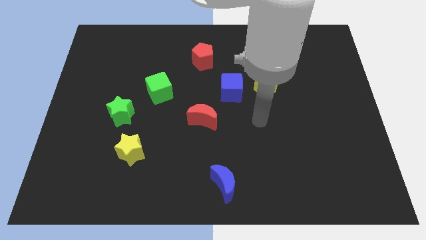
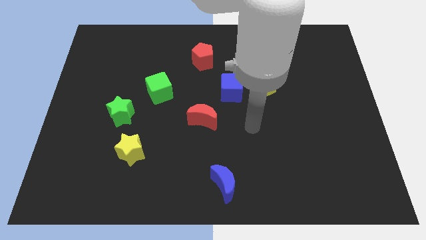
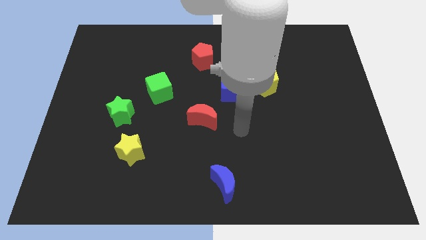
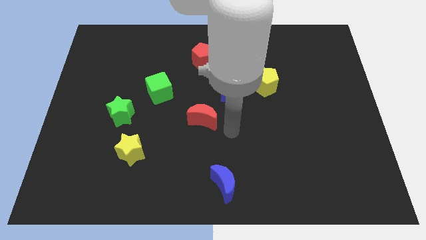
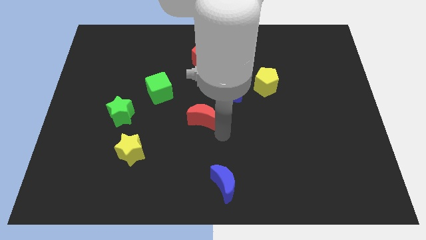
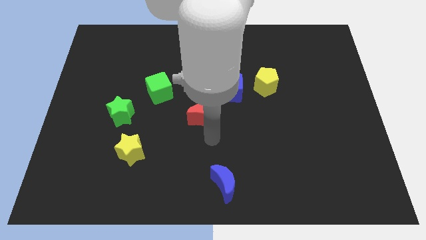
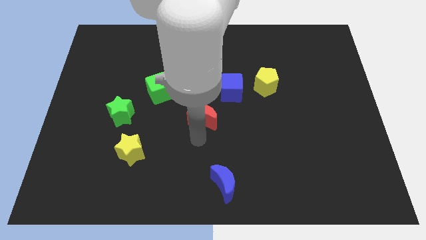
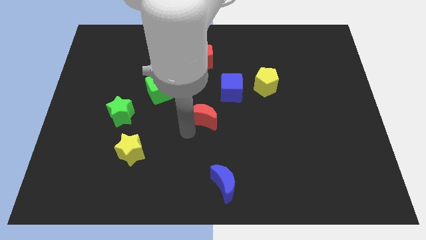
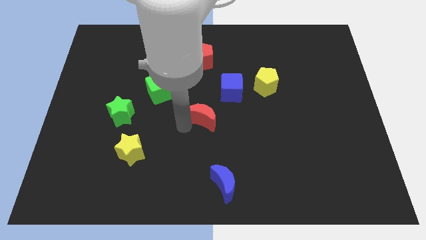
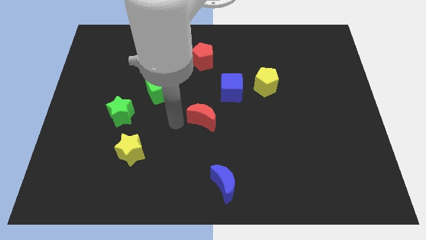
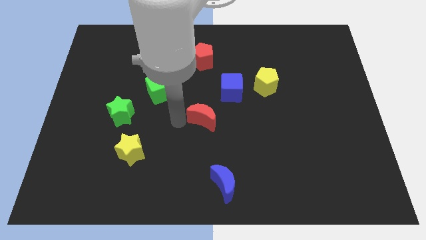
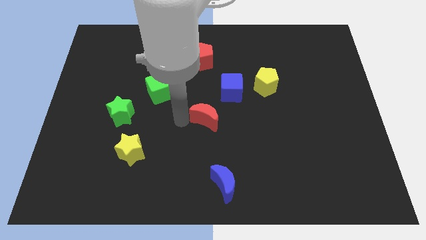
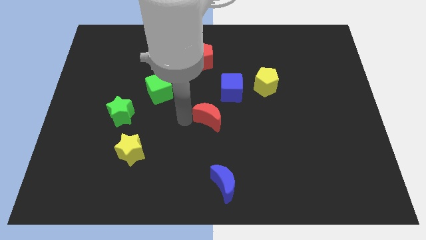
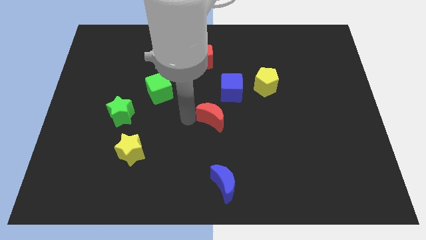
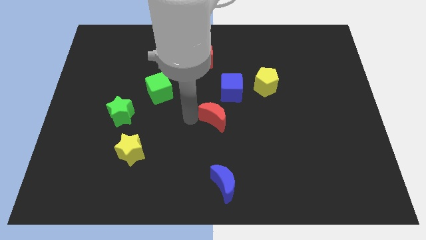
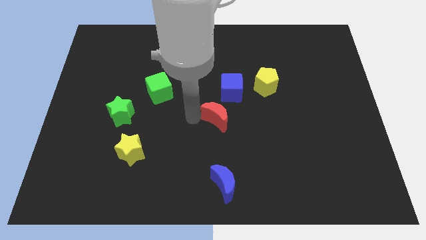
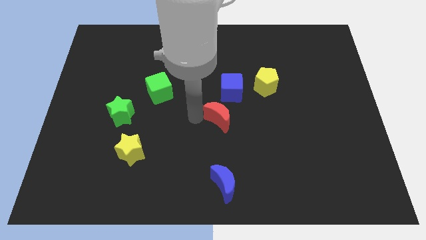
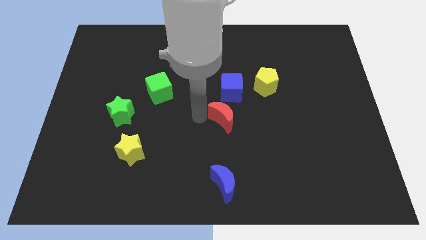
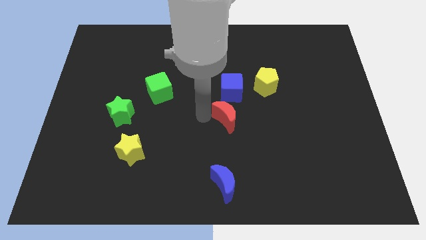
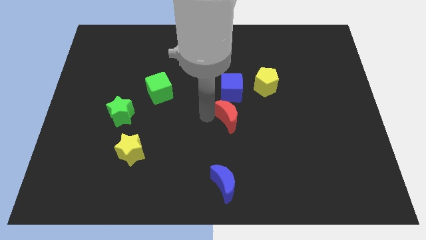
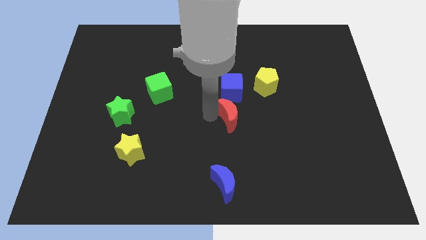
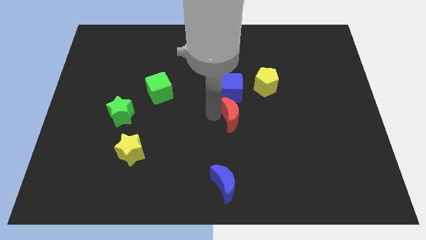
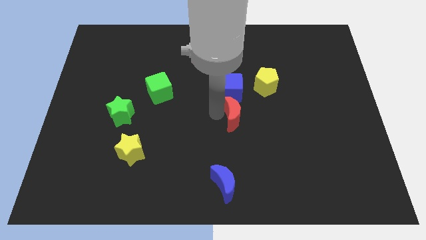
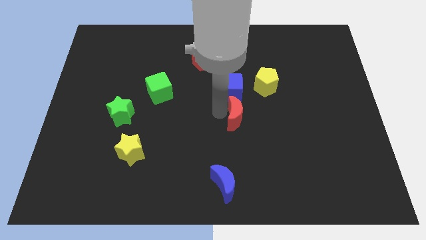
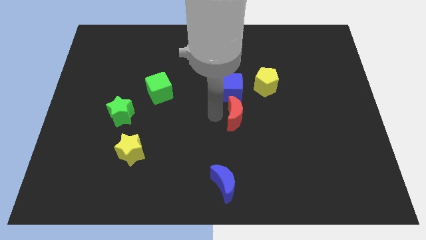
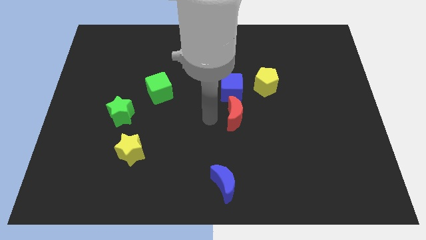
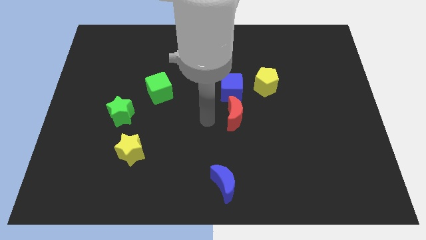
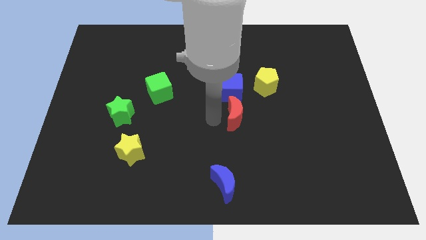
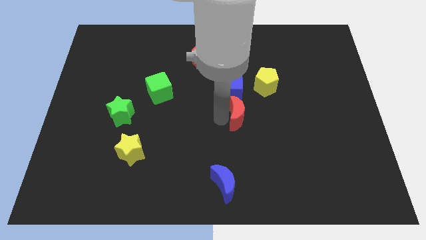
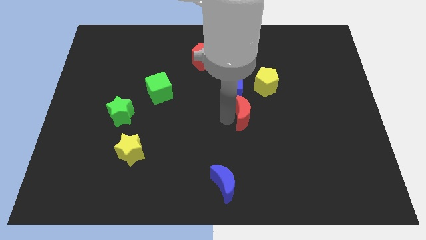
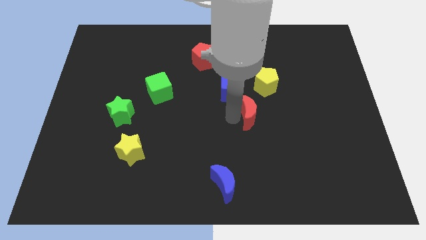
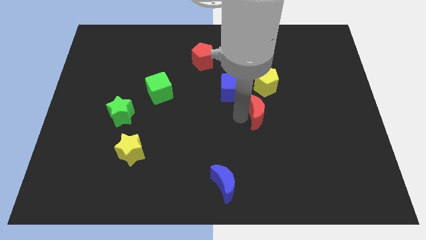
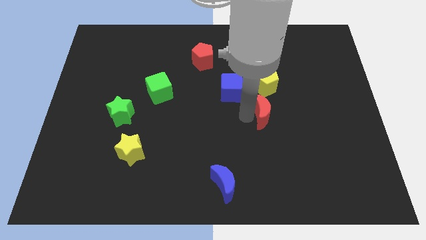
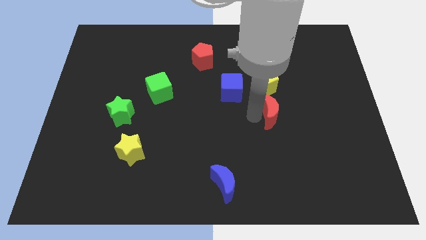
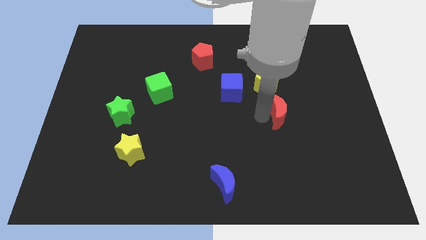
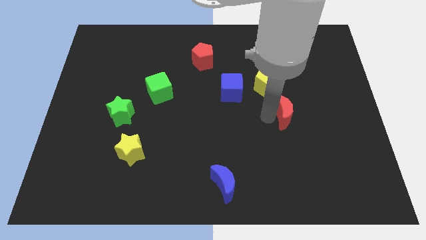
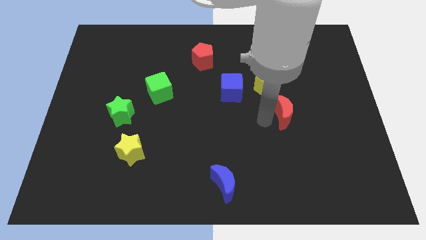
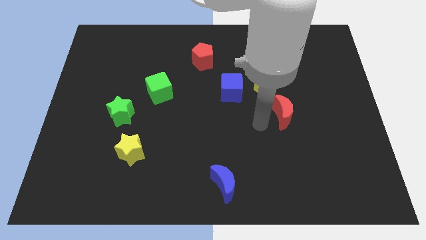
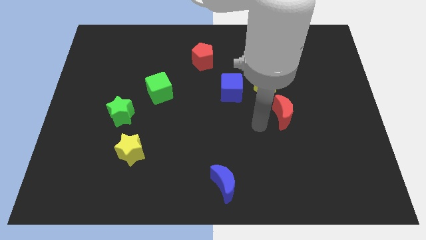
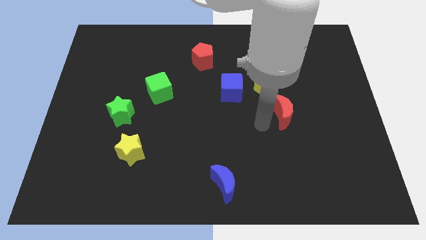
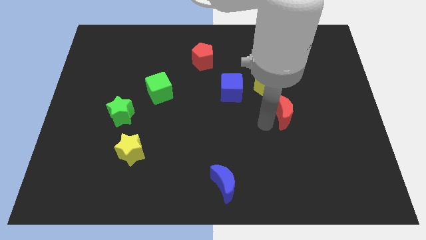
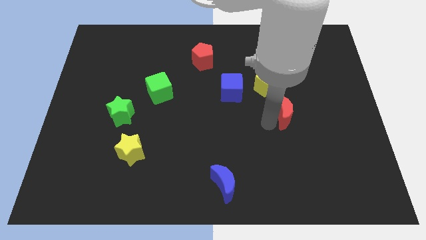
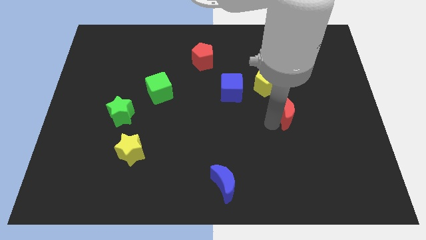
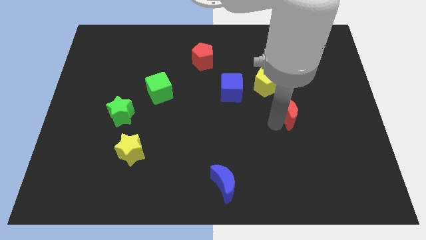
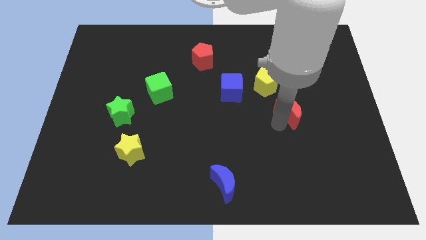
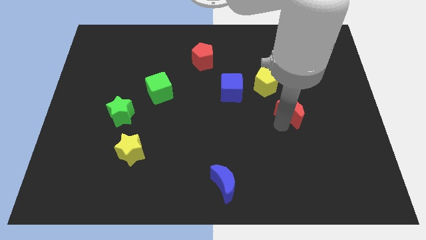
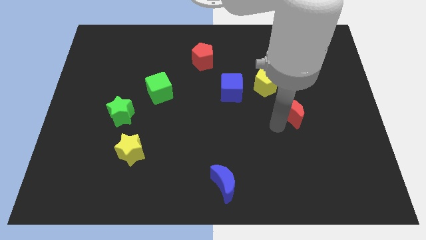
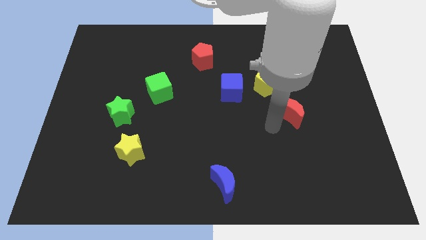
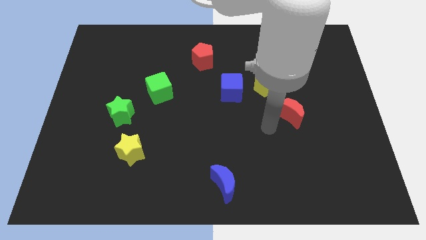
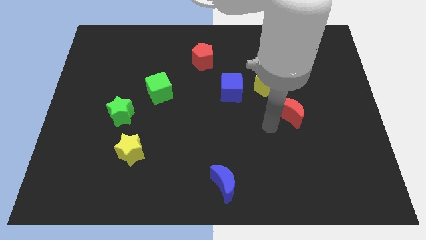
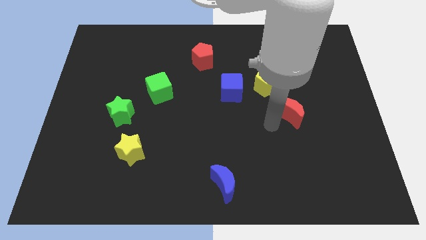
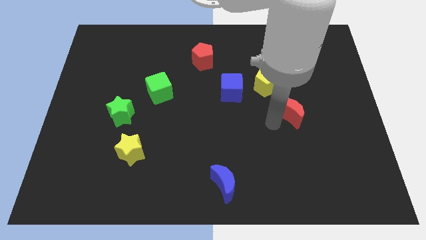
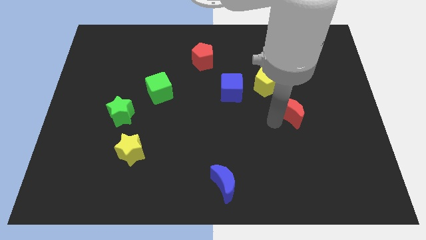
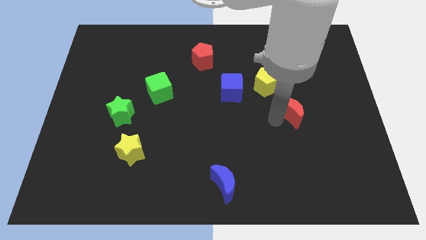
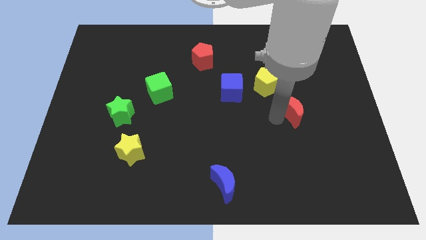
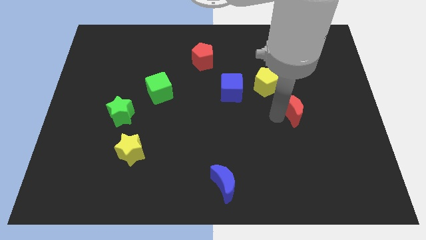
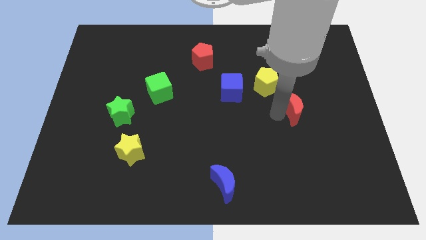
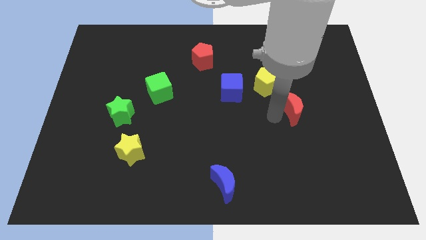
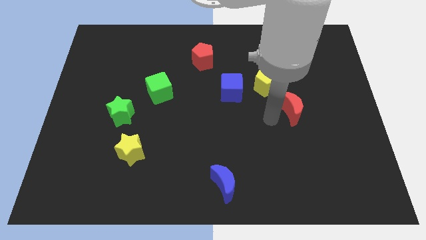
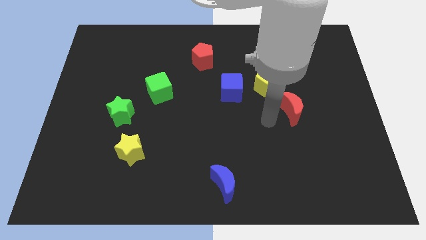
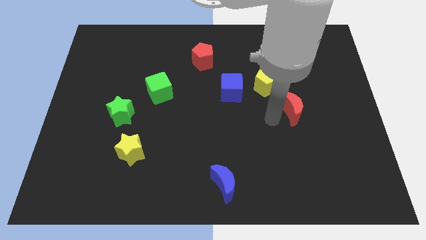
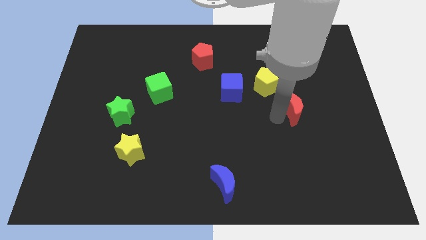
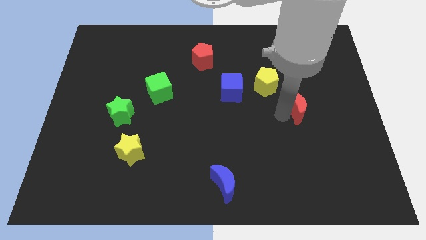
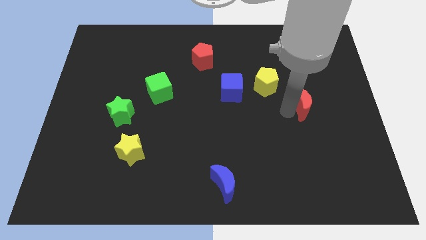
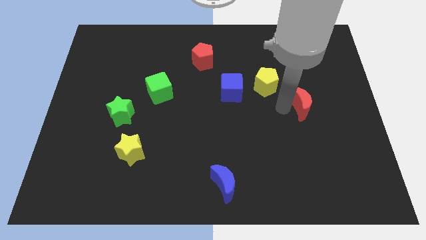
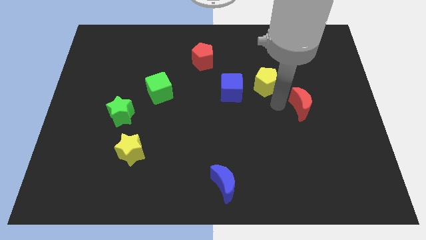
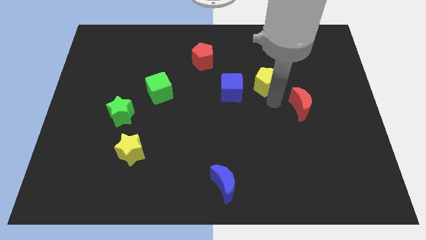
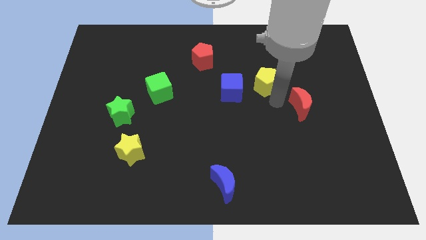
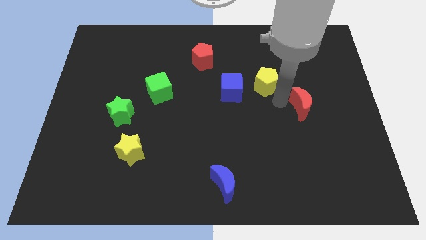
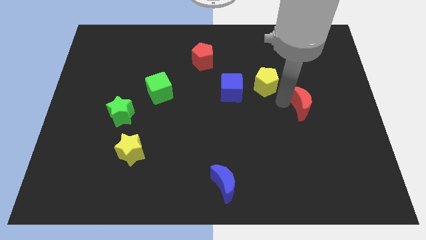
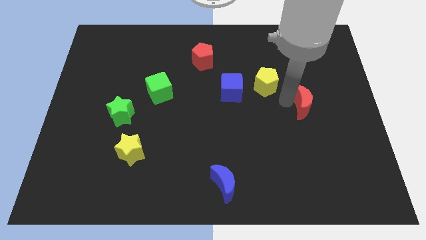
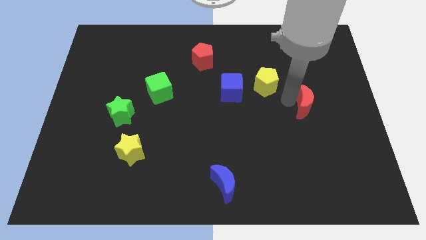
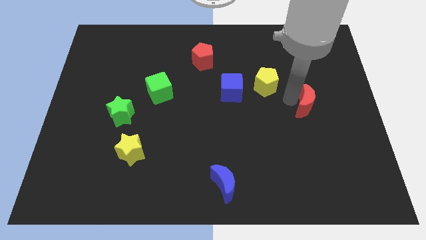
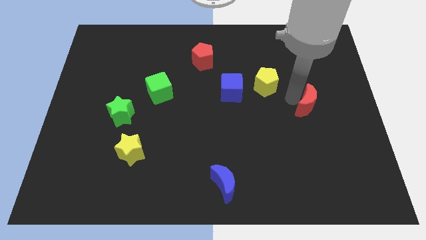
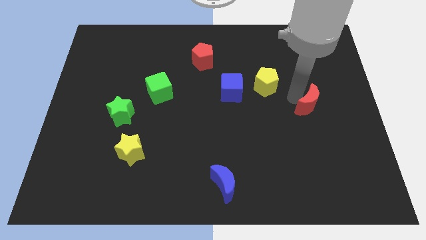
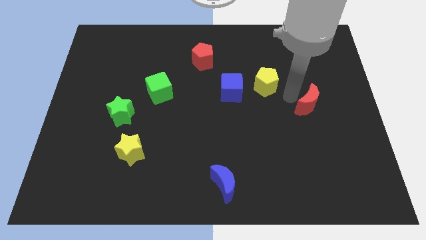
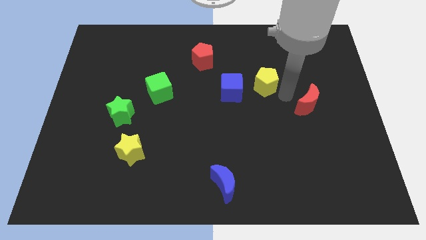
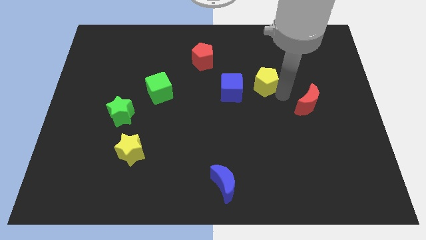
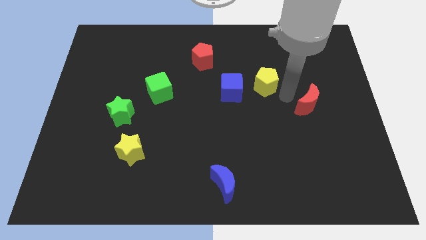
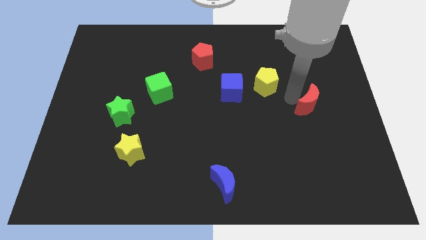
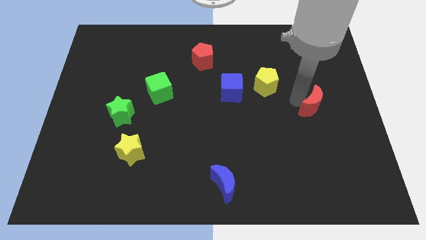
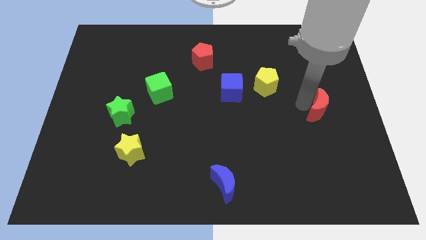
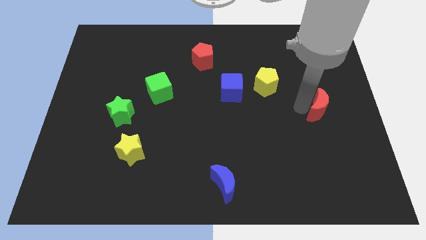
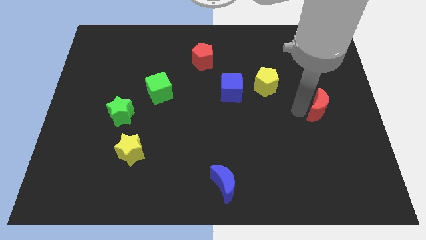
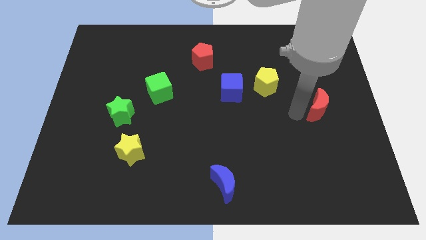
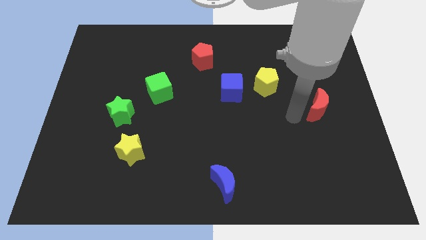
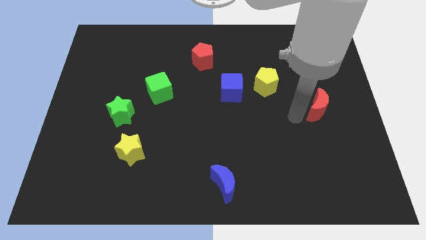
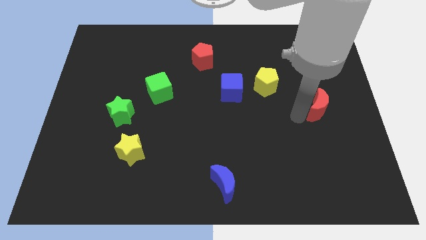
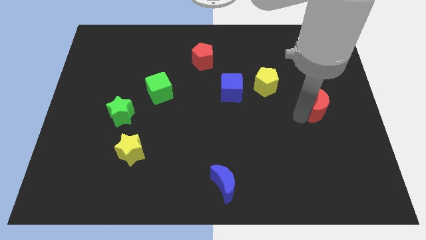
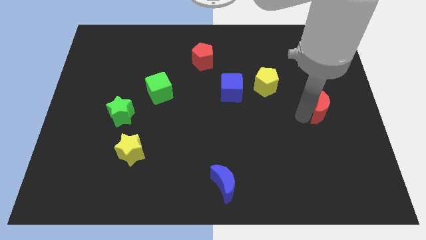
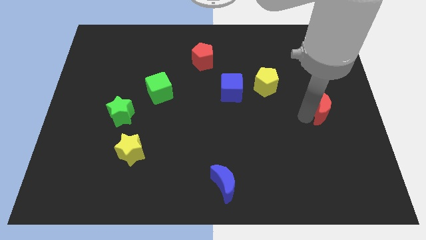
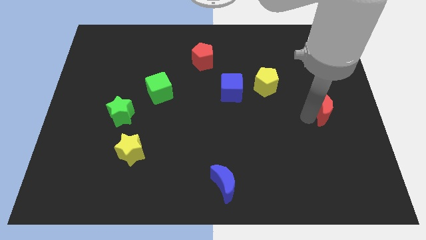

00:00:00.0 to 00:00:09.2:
put the red moon to the right side of the board
